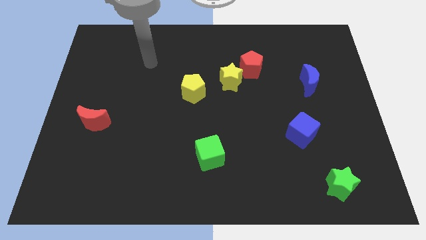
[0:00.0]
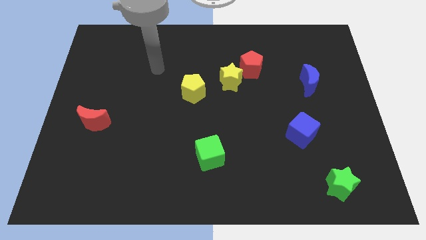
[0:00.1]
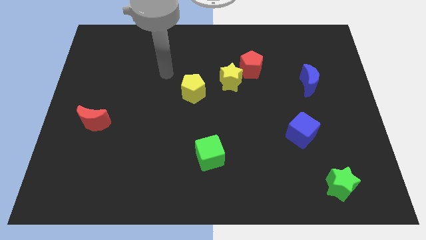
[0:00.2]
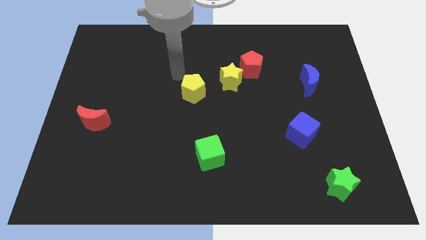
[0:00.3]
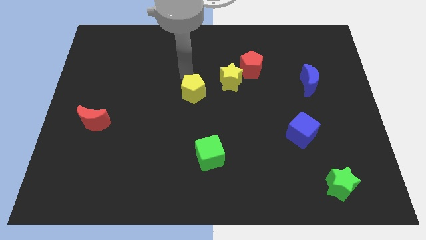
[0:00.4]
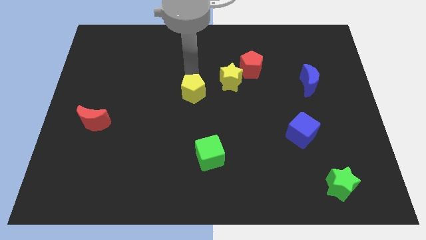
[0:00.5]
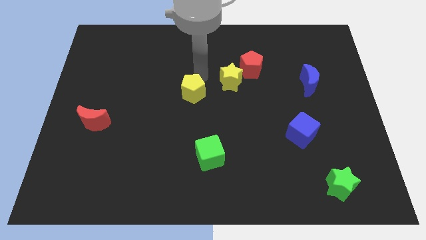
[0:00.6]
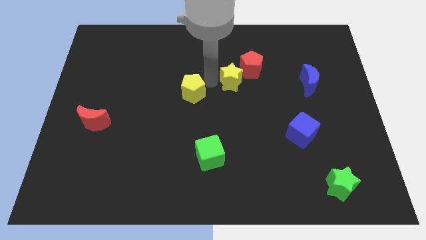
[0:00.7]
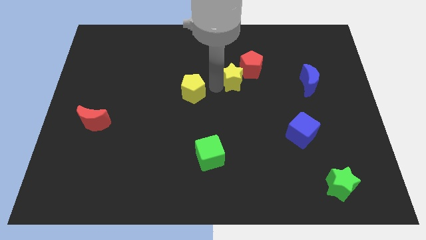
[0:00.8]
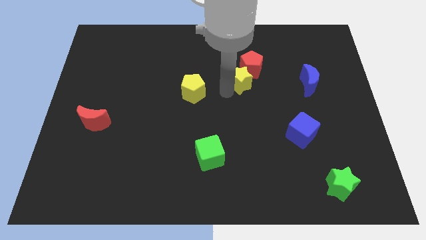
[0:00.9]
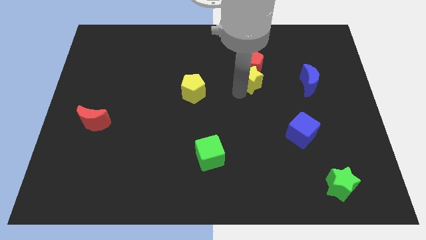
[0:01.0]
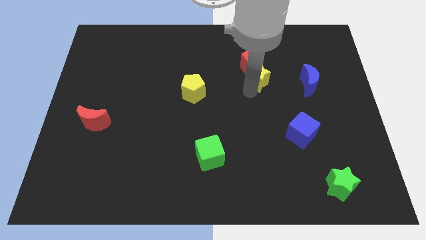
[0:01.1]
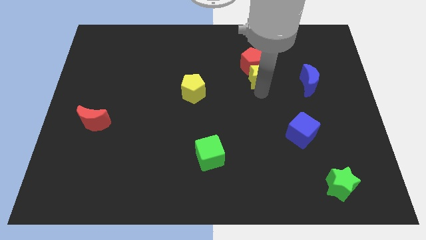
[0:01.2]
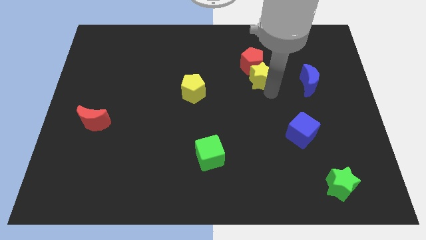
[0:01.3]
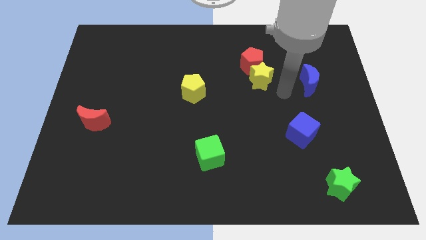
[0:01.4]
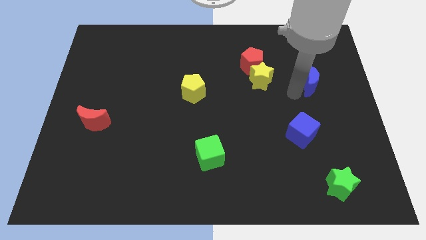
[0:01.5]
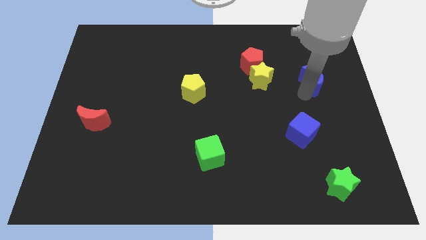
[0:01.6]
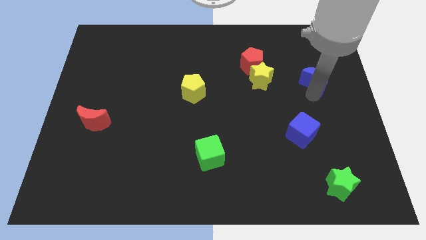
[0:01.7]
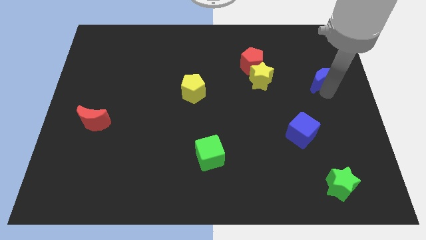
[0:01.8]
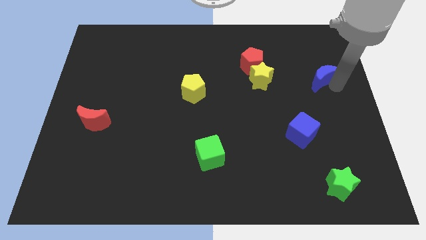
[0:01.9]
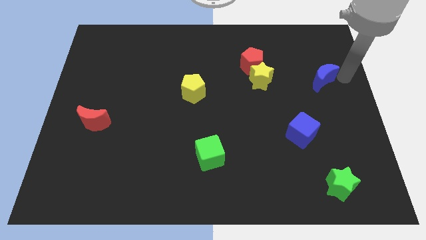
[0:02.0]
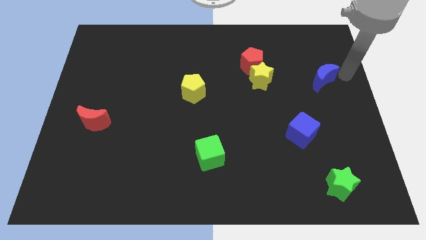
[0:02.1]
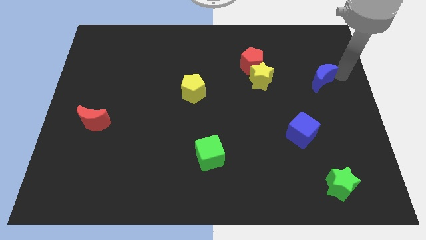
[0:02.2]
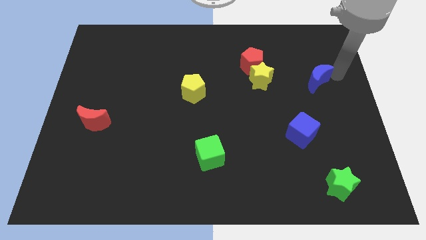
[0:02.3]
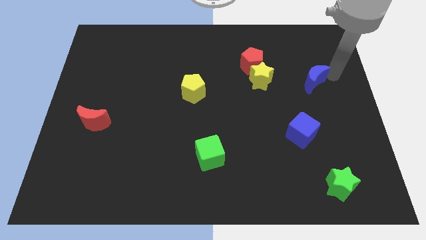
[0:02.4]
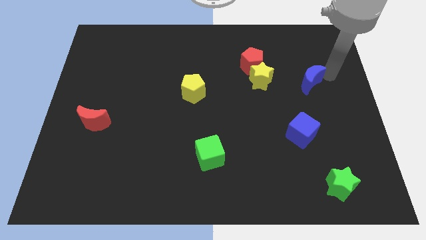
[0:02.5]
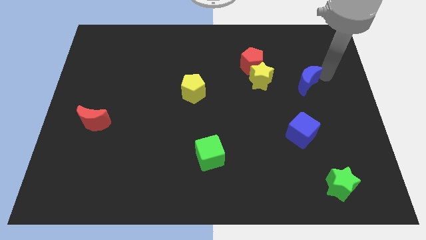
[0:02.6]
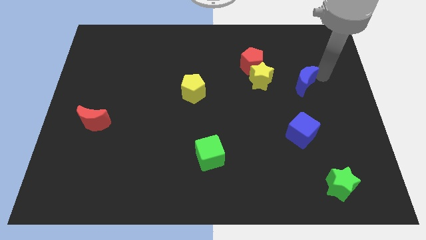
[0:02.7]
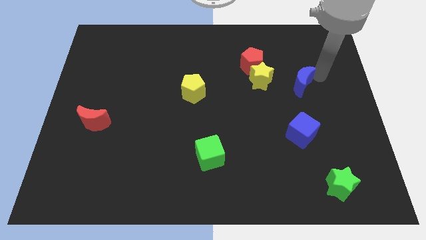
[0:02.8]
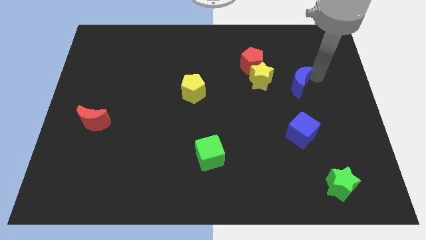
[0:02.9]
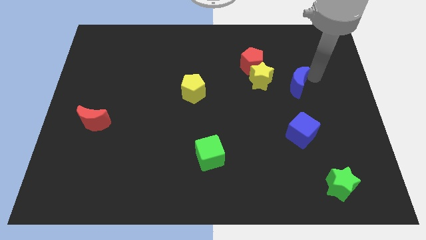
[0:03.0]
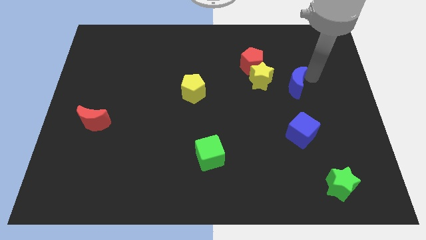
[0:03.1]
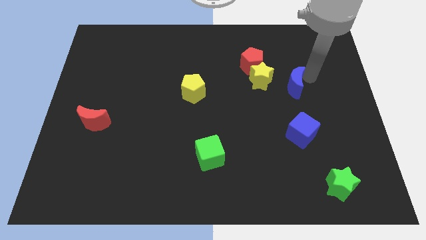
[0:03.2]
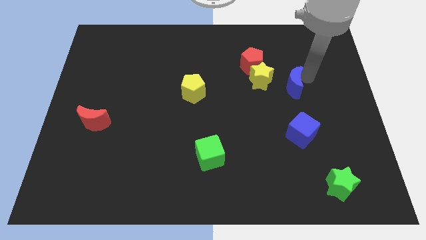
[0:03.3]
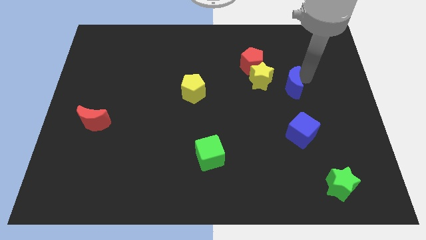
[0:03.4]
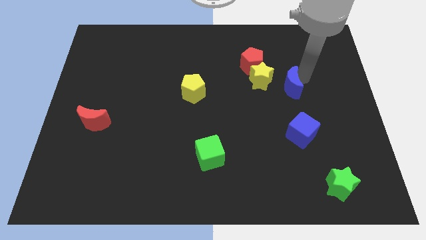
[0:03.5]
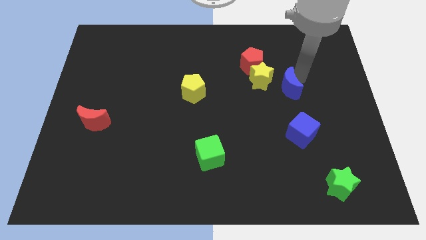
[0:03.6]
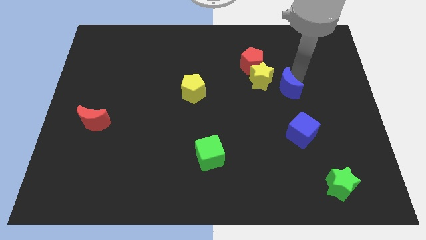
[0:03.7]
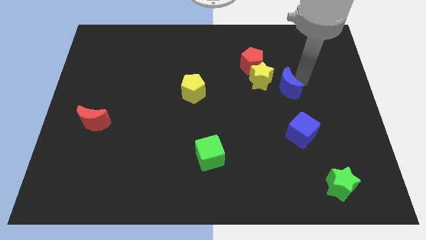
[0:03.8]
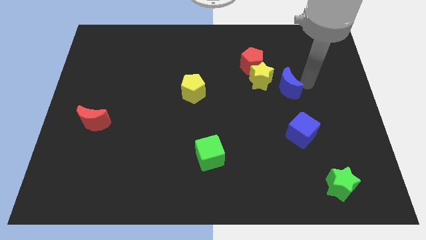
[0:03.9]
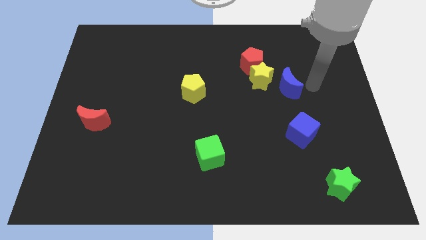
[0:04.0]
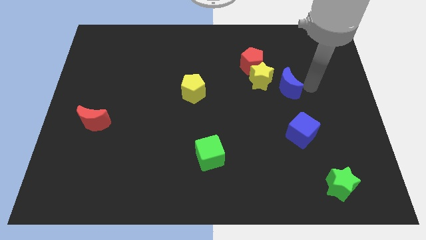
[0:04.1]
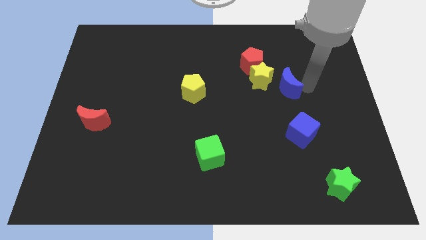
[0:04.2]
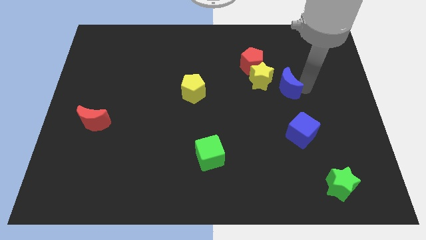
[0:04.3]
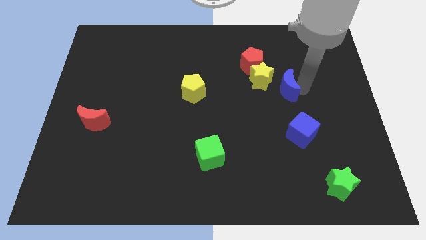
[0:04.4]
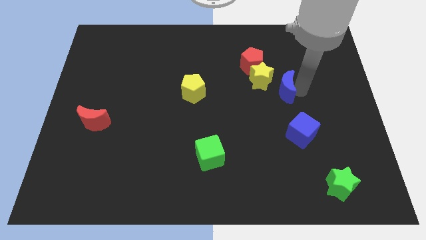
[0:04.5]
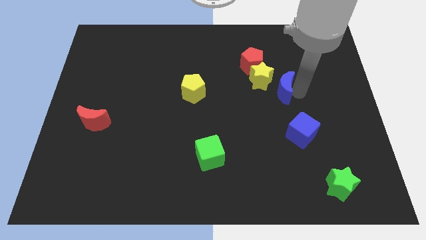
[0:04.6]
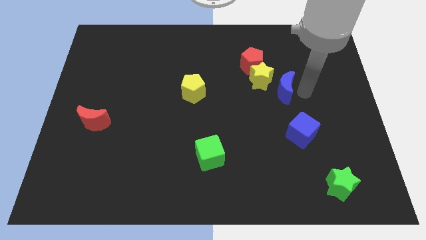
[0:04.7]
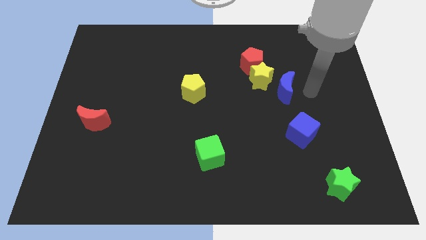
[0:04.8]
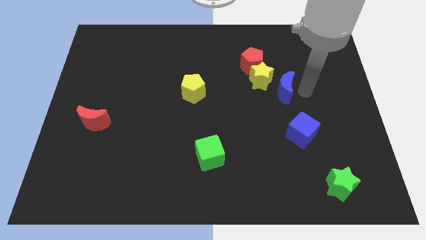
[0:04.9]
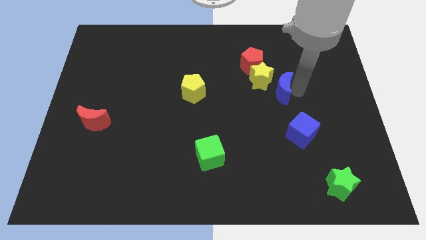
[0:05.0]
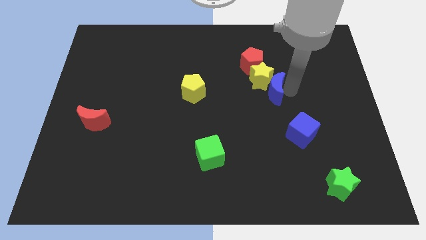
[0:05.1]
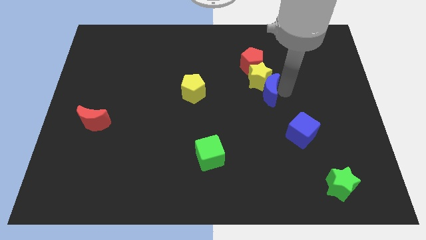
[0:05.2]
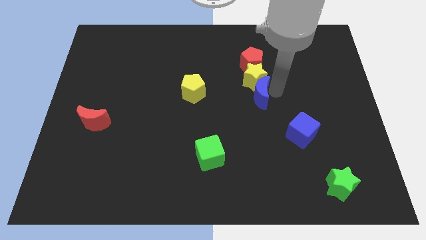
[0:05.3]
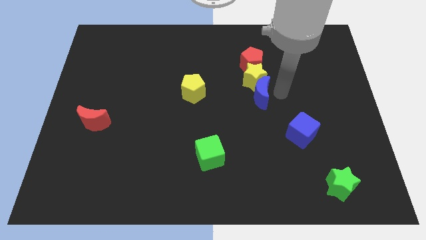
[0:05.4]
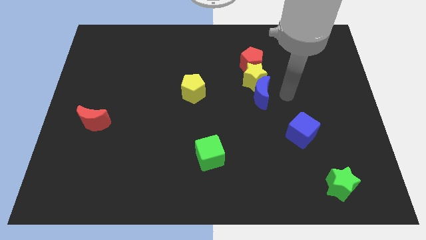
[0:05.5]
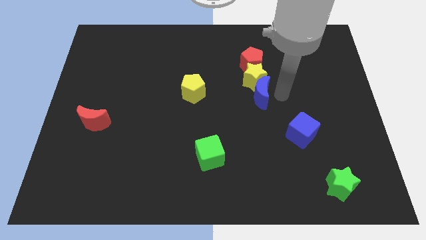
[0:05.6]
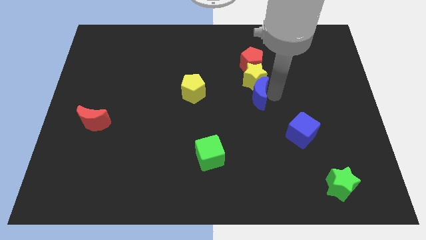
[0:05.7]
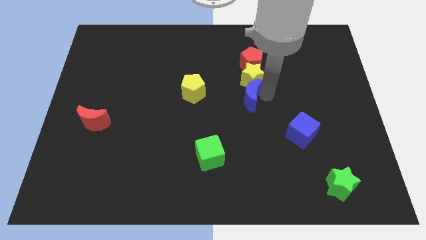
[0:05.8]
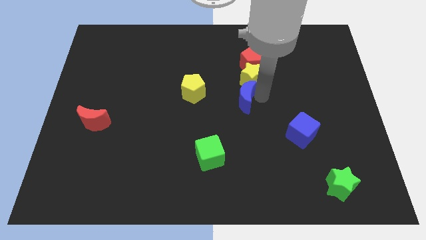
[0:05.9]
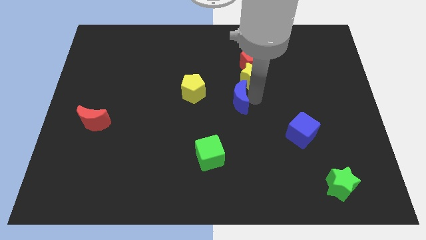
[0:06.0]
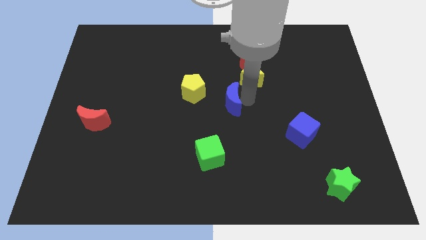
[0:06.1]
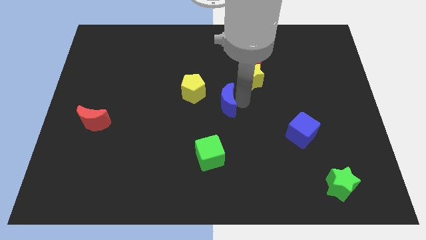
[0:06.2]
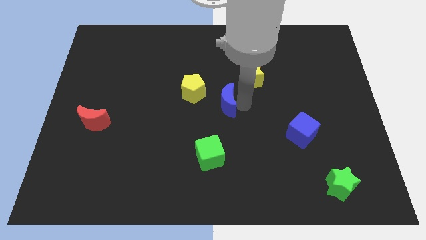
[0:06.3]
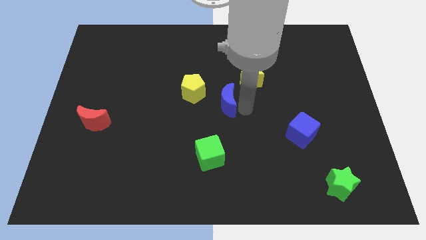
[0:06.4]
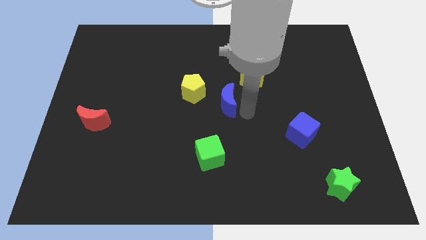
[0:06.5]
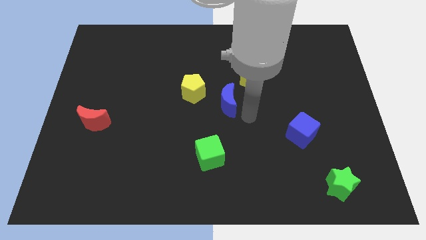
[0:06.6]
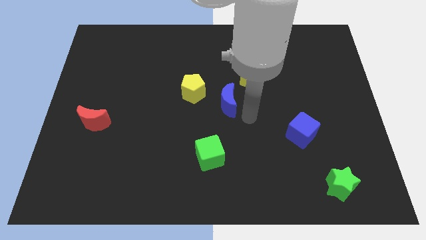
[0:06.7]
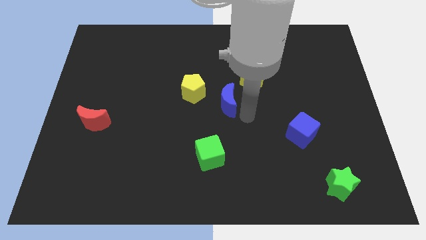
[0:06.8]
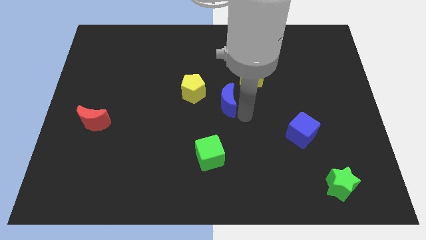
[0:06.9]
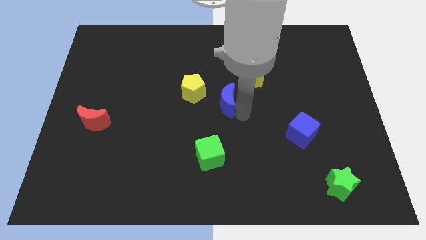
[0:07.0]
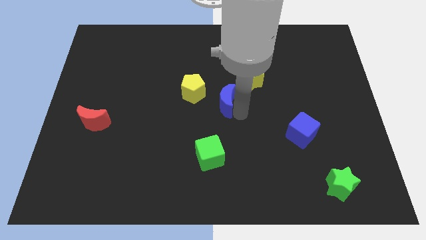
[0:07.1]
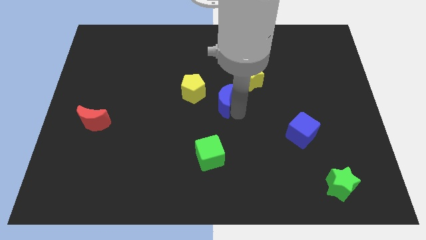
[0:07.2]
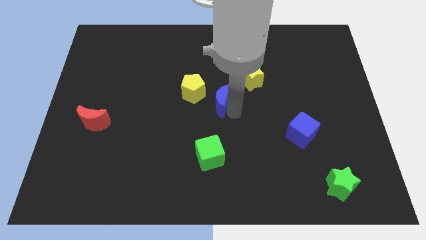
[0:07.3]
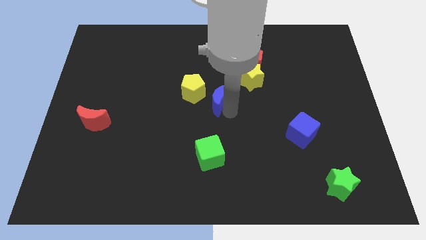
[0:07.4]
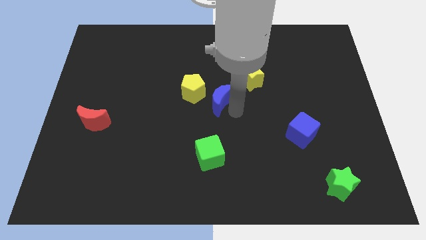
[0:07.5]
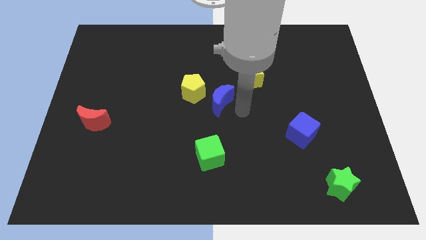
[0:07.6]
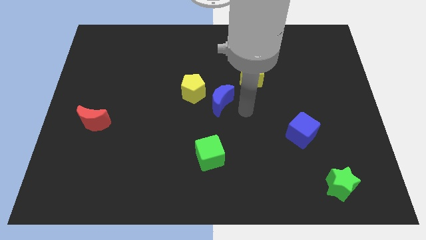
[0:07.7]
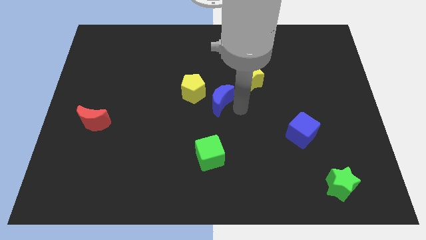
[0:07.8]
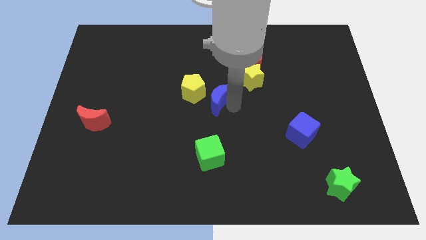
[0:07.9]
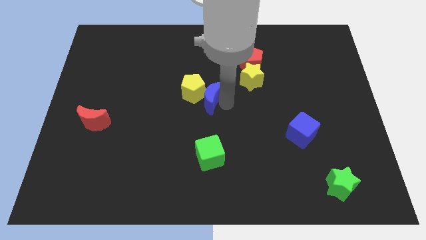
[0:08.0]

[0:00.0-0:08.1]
put the blue moon next to the yellow pentagon
